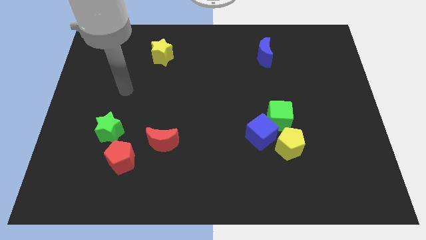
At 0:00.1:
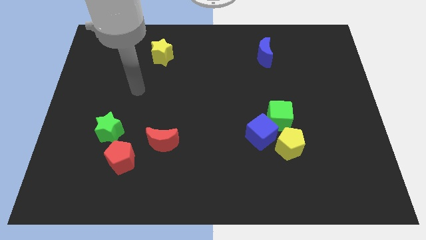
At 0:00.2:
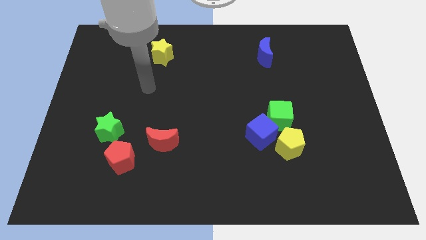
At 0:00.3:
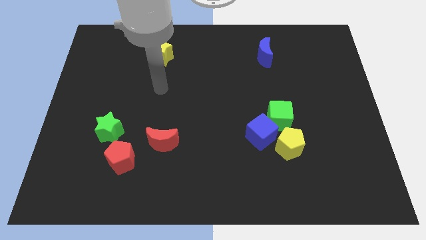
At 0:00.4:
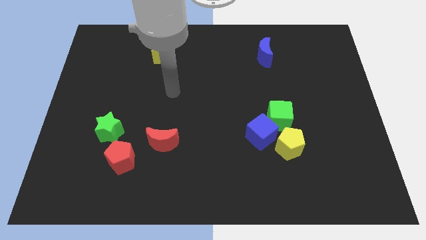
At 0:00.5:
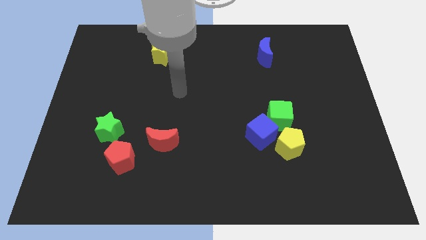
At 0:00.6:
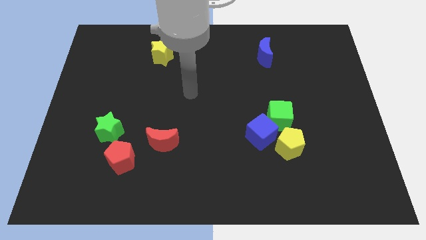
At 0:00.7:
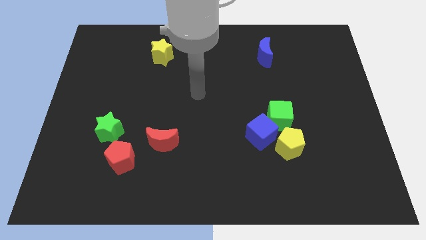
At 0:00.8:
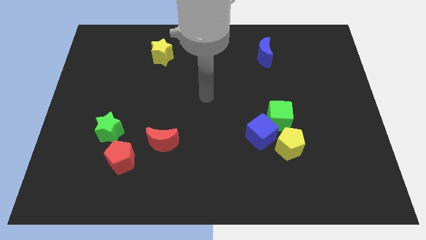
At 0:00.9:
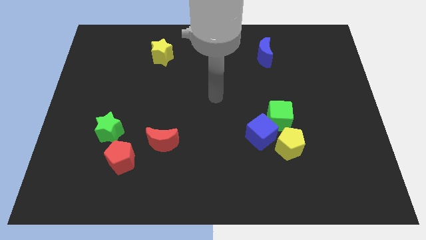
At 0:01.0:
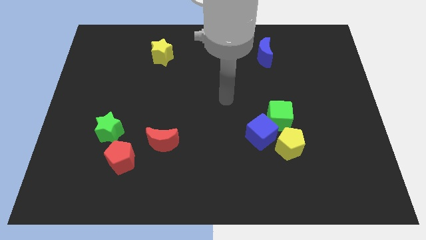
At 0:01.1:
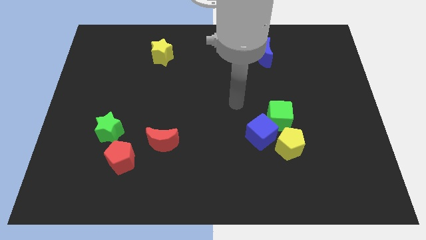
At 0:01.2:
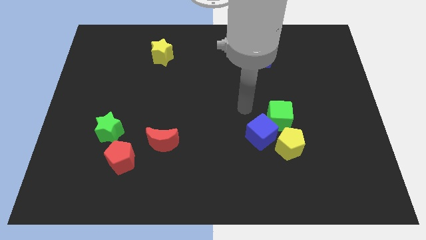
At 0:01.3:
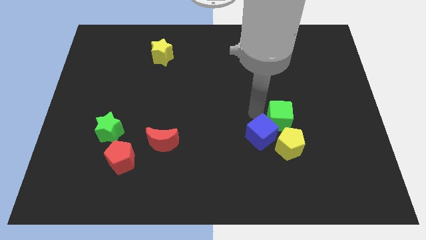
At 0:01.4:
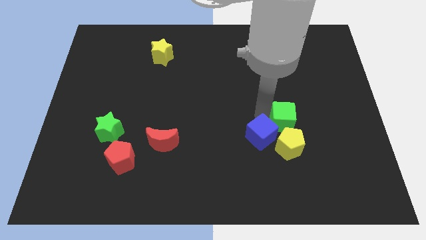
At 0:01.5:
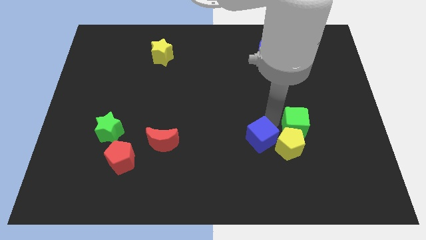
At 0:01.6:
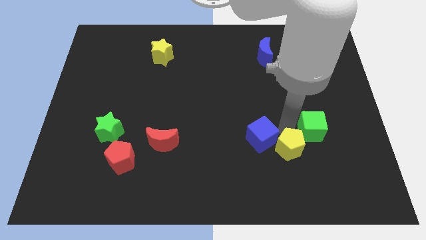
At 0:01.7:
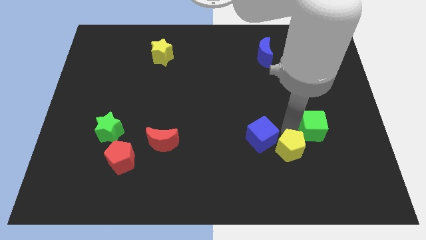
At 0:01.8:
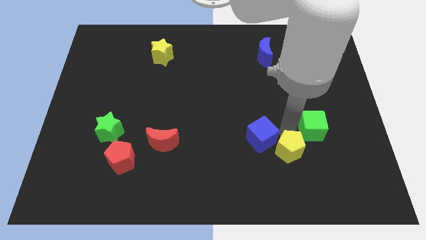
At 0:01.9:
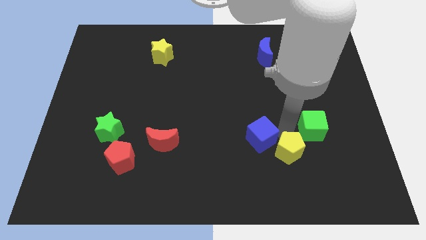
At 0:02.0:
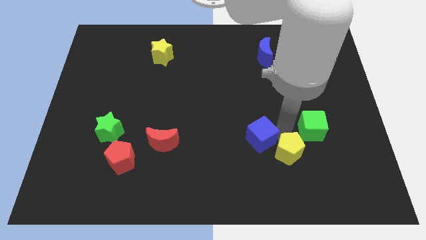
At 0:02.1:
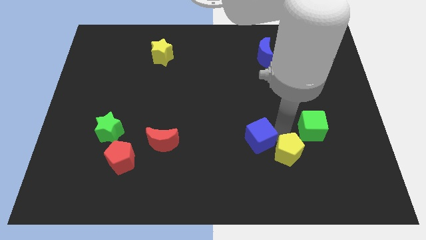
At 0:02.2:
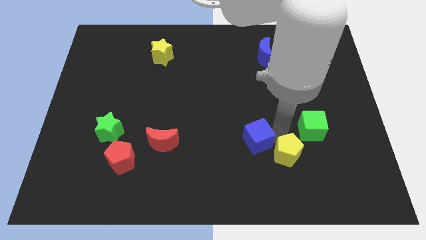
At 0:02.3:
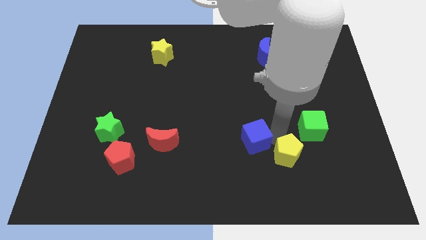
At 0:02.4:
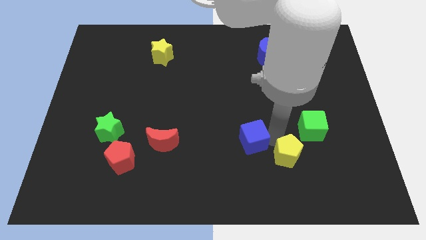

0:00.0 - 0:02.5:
move the blue cube away from the green cube and yellow pentagon

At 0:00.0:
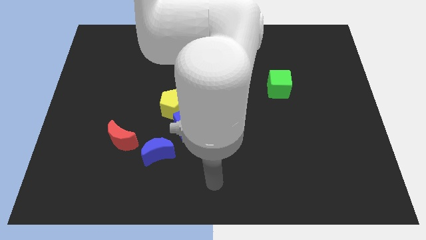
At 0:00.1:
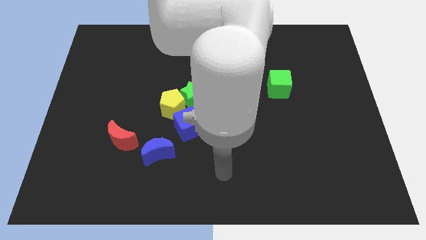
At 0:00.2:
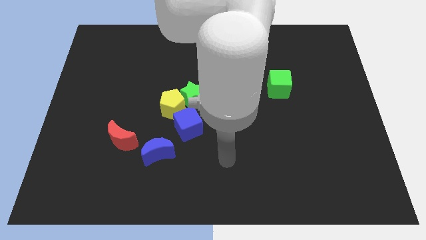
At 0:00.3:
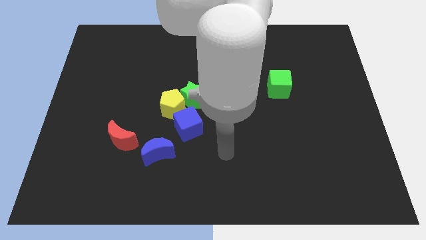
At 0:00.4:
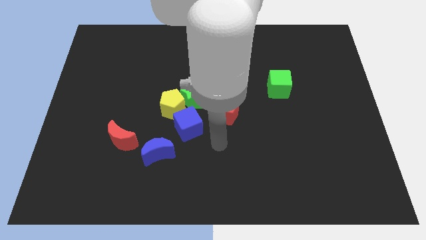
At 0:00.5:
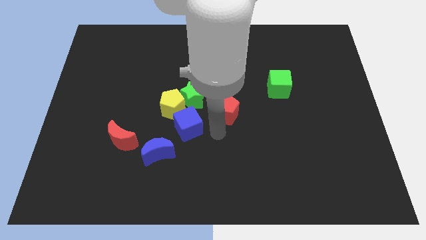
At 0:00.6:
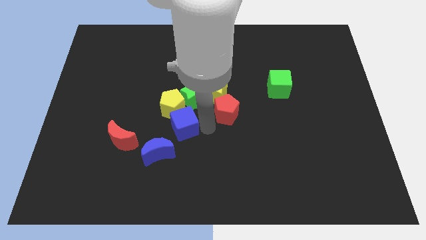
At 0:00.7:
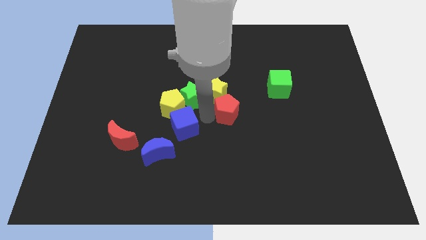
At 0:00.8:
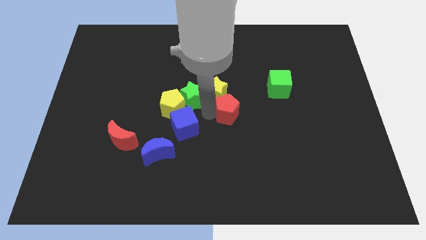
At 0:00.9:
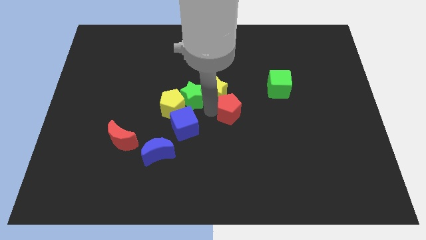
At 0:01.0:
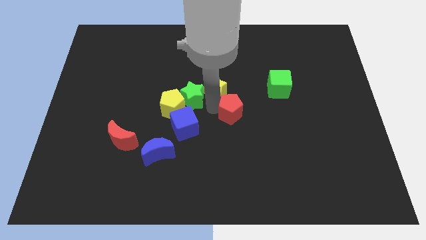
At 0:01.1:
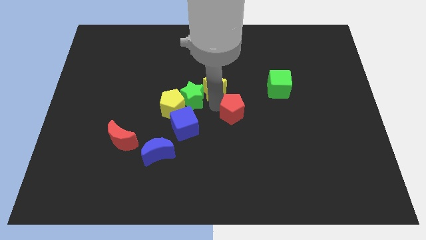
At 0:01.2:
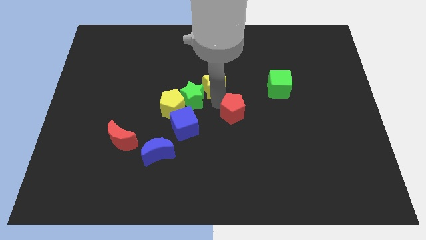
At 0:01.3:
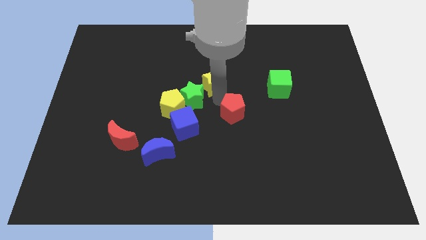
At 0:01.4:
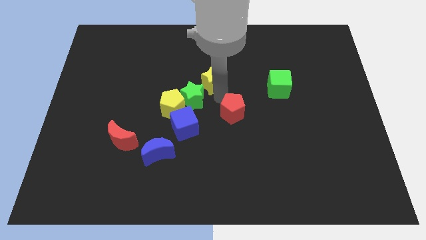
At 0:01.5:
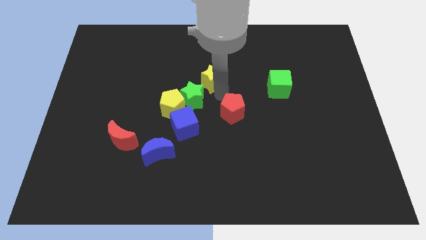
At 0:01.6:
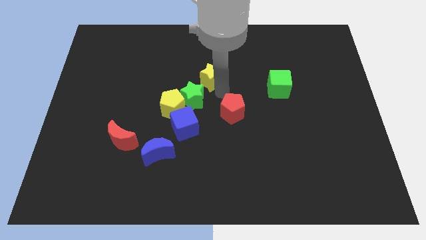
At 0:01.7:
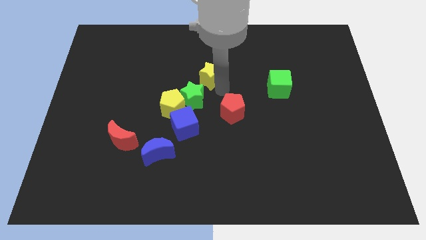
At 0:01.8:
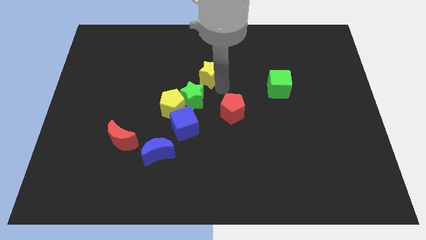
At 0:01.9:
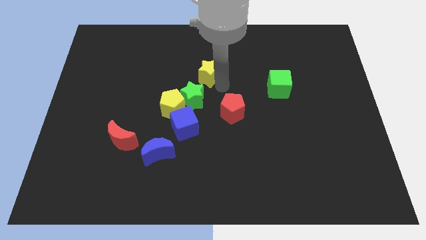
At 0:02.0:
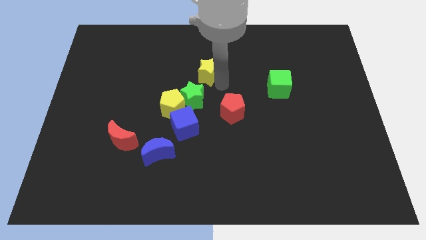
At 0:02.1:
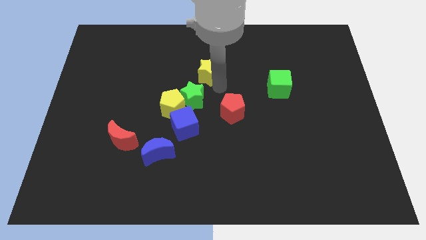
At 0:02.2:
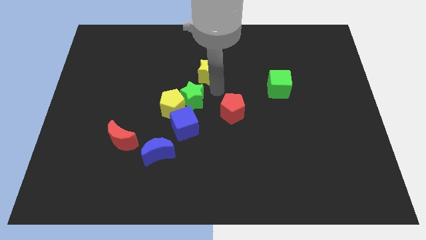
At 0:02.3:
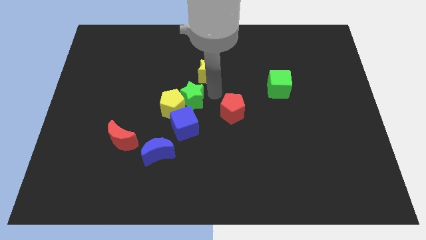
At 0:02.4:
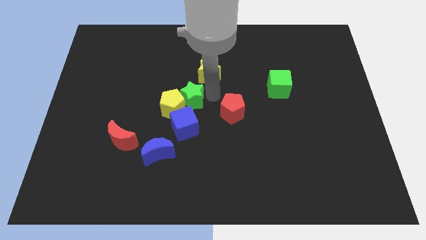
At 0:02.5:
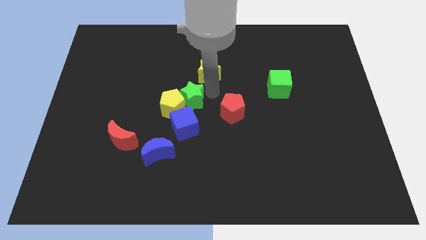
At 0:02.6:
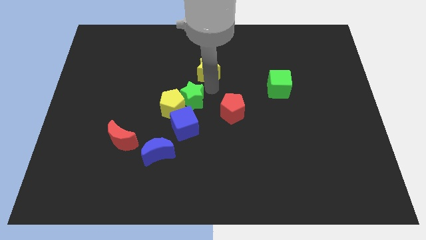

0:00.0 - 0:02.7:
move the yellow star away from the green star and red pentagon

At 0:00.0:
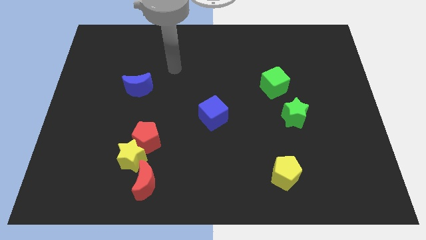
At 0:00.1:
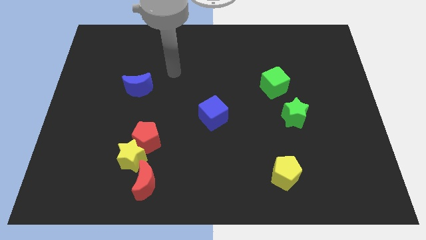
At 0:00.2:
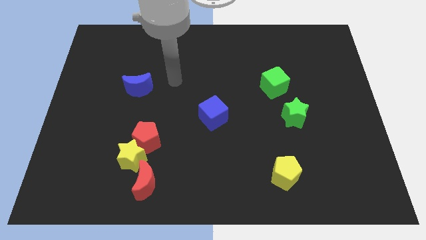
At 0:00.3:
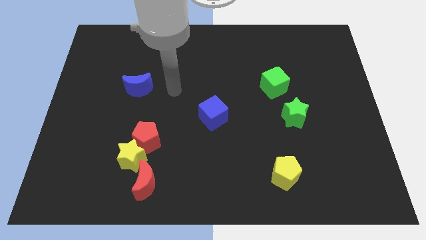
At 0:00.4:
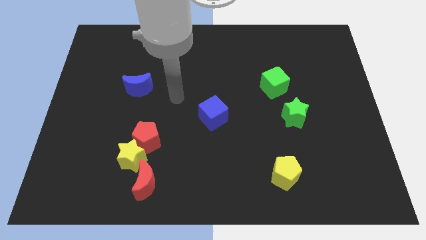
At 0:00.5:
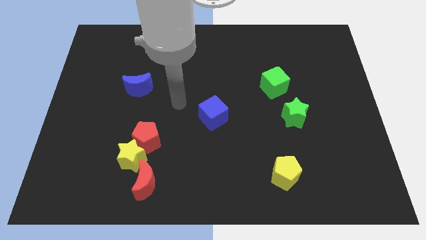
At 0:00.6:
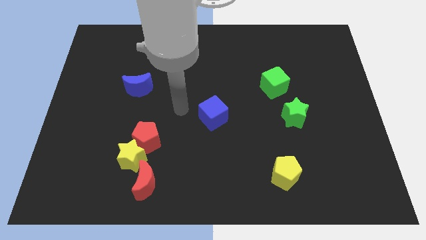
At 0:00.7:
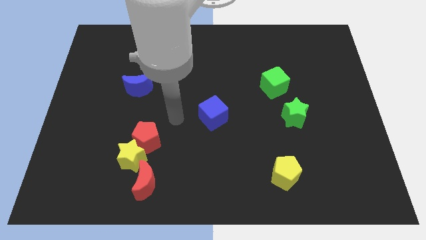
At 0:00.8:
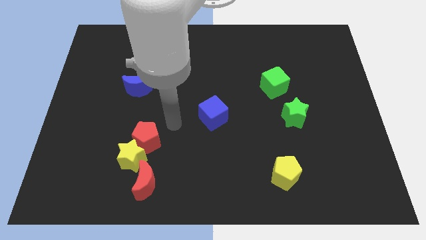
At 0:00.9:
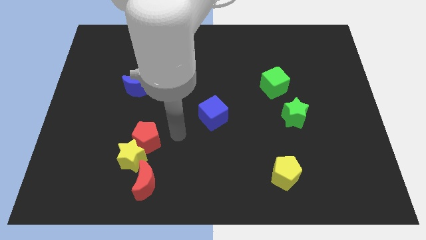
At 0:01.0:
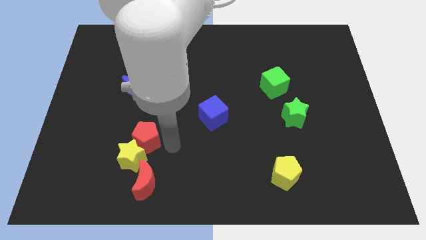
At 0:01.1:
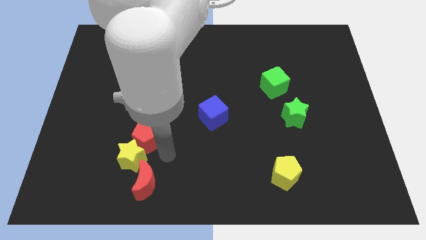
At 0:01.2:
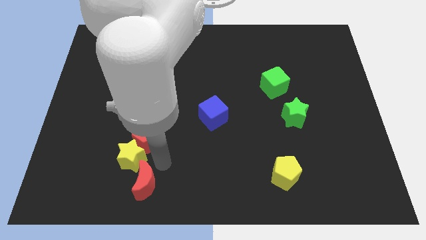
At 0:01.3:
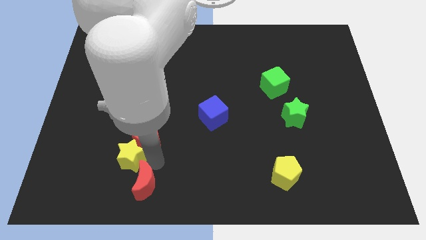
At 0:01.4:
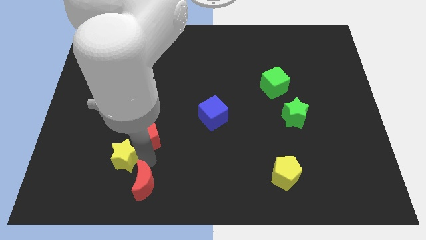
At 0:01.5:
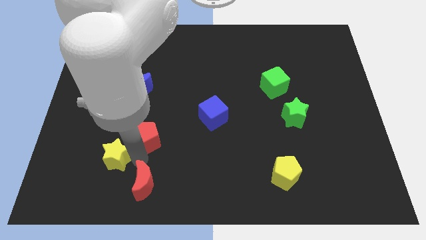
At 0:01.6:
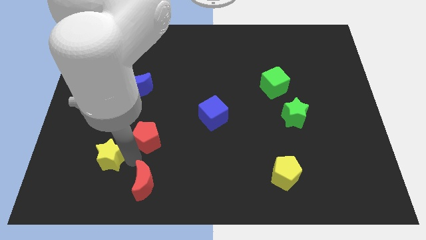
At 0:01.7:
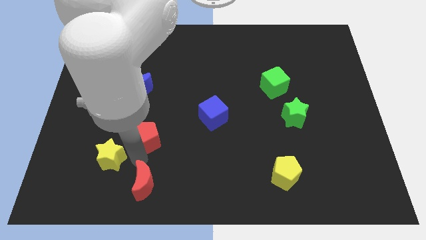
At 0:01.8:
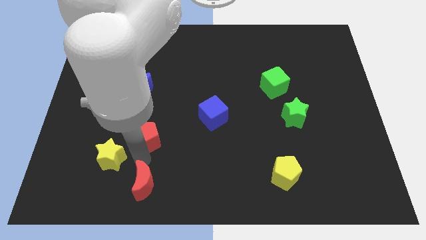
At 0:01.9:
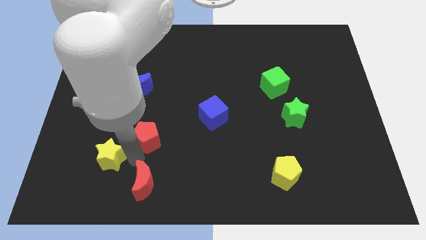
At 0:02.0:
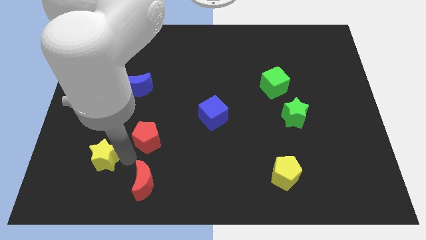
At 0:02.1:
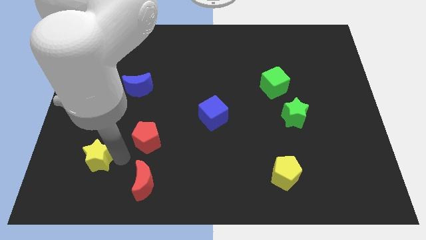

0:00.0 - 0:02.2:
move the yellow star away from the red pentagon and red moon

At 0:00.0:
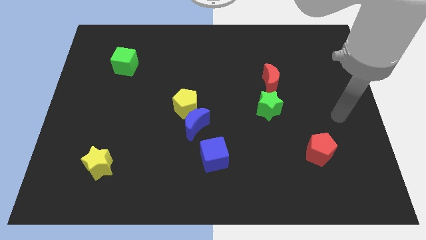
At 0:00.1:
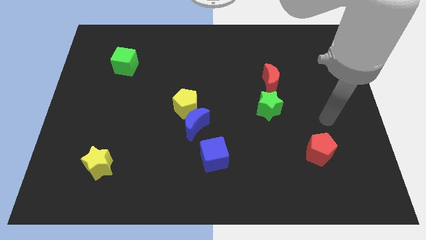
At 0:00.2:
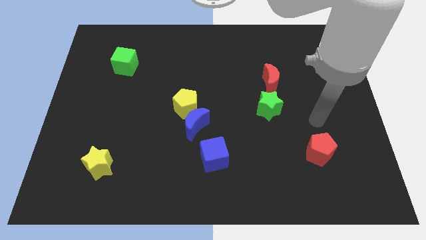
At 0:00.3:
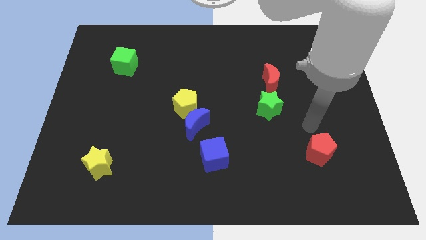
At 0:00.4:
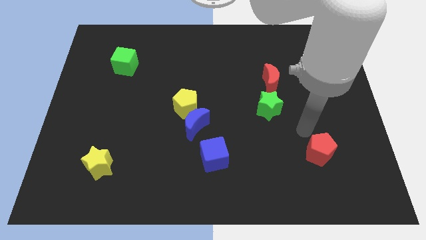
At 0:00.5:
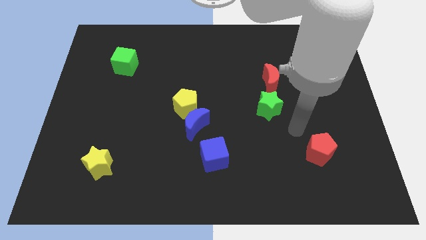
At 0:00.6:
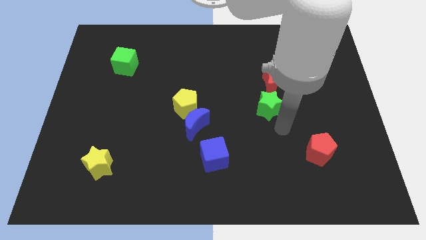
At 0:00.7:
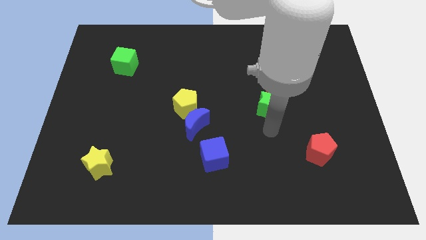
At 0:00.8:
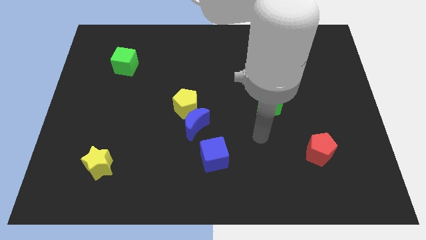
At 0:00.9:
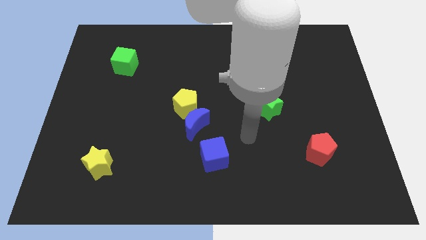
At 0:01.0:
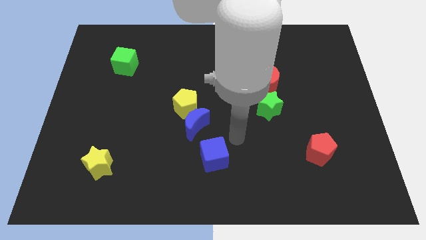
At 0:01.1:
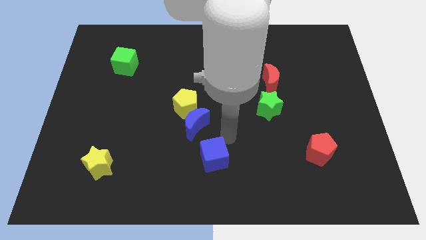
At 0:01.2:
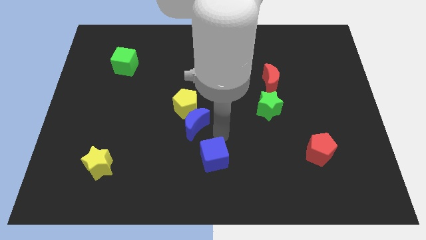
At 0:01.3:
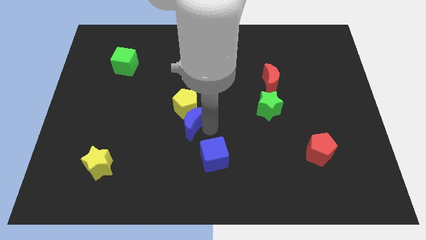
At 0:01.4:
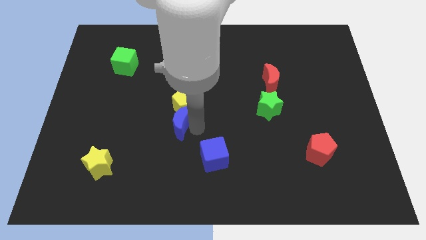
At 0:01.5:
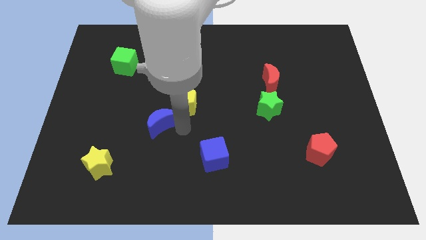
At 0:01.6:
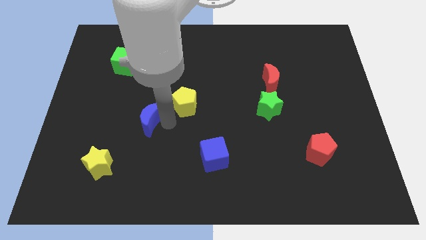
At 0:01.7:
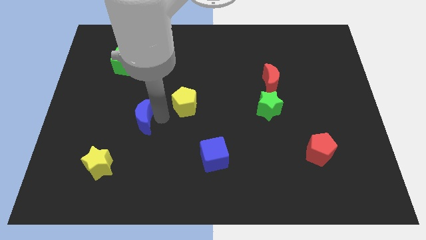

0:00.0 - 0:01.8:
separate the yellow pentagon from the blue moon

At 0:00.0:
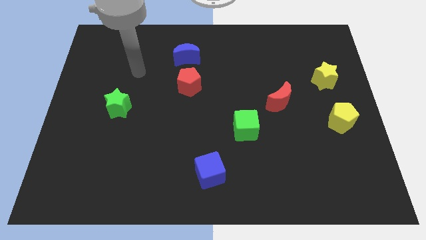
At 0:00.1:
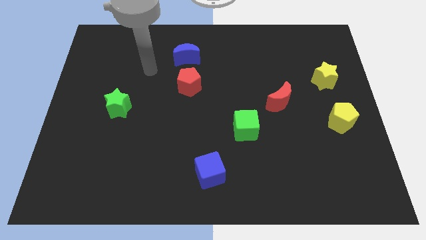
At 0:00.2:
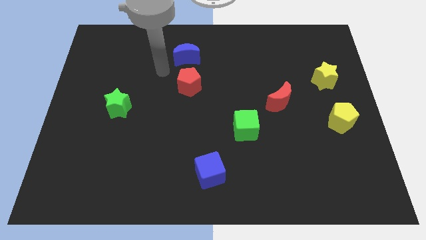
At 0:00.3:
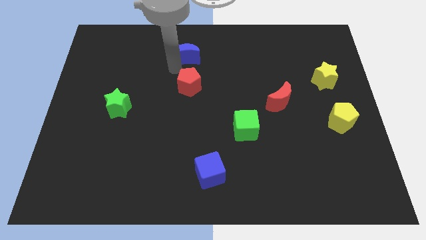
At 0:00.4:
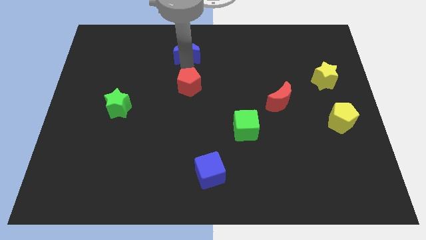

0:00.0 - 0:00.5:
pull the red pentagon apart from the blue moon
